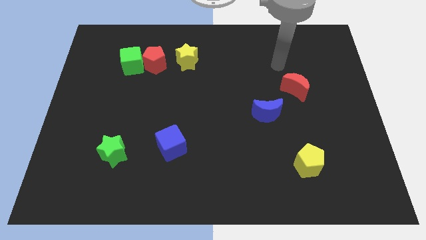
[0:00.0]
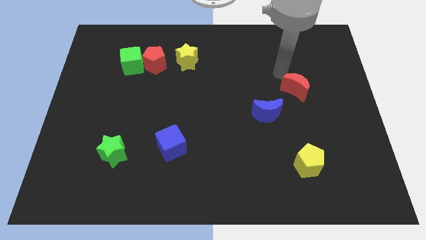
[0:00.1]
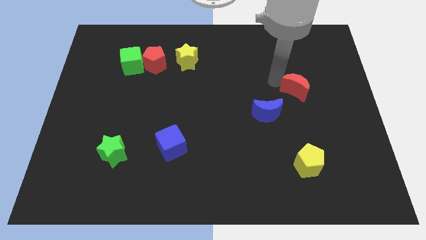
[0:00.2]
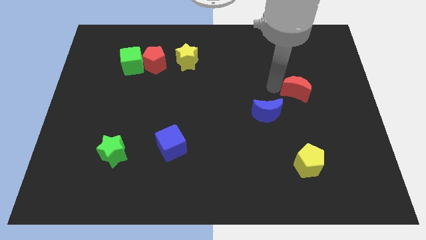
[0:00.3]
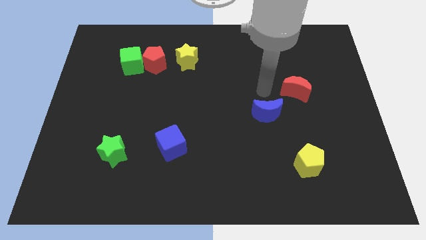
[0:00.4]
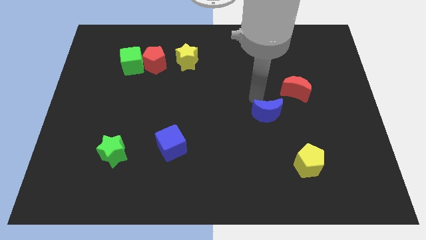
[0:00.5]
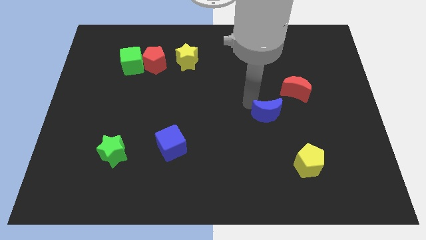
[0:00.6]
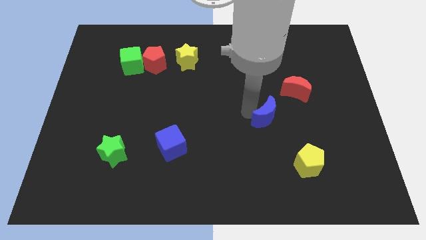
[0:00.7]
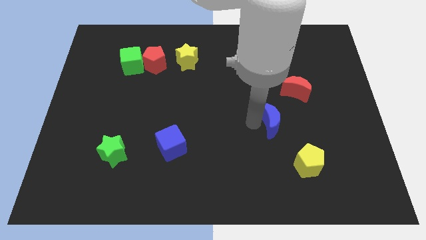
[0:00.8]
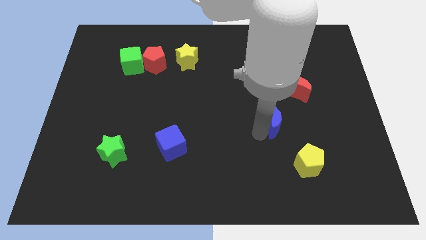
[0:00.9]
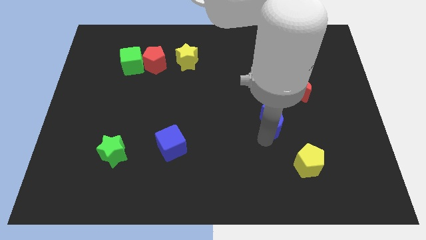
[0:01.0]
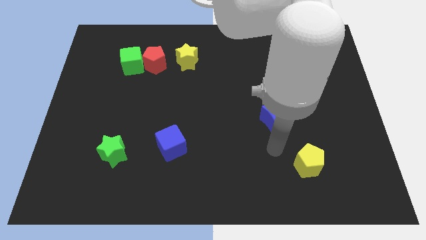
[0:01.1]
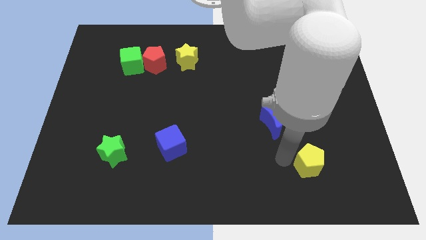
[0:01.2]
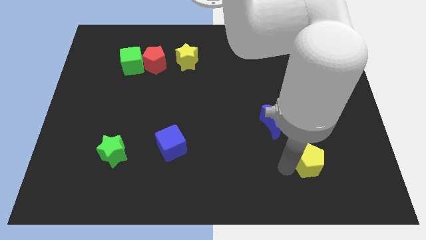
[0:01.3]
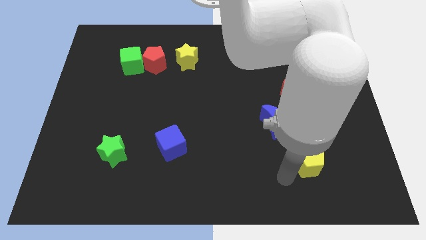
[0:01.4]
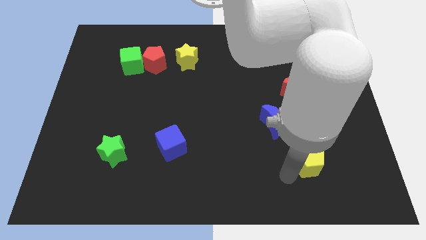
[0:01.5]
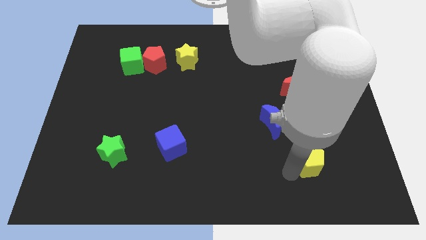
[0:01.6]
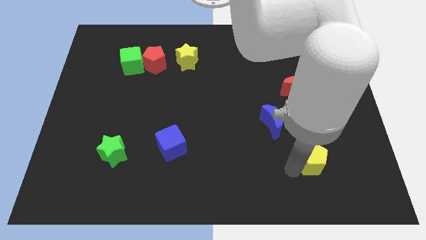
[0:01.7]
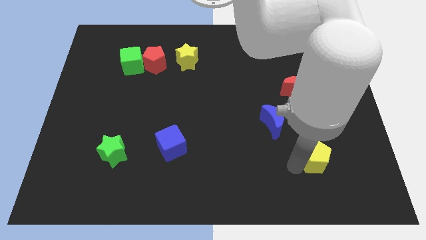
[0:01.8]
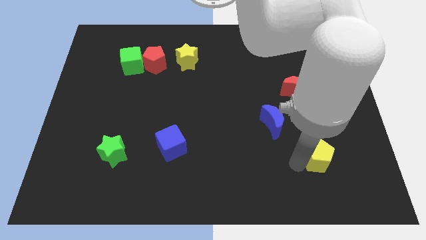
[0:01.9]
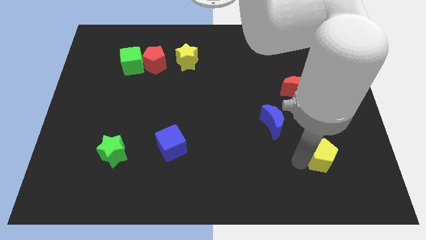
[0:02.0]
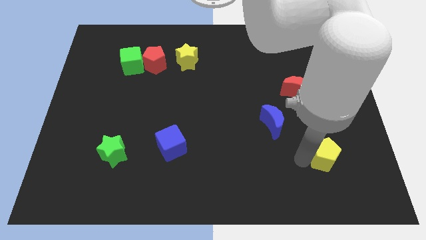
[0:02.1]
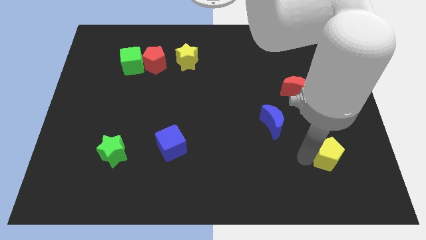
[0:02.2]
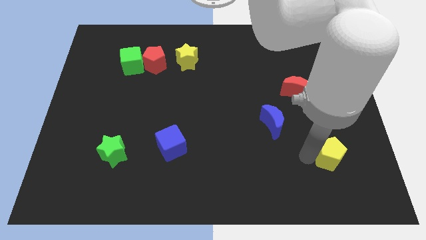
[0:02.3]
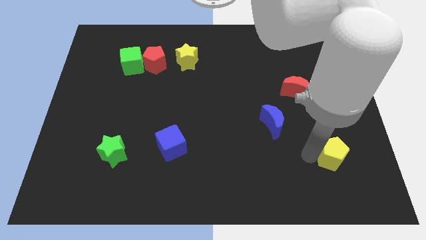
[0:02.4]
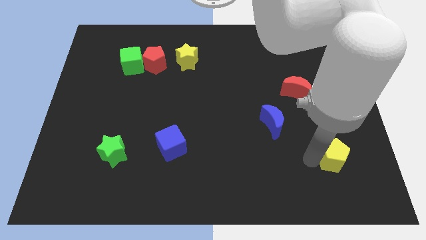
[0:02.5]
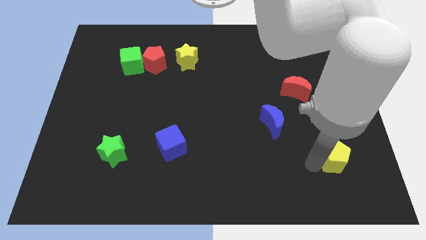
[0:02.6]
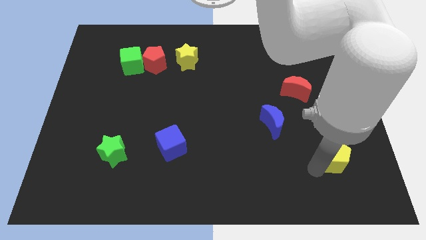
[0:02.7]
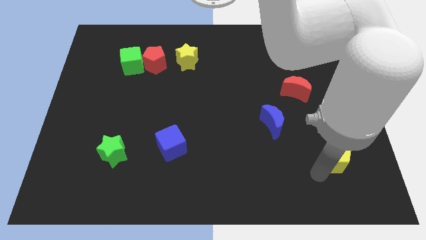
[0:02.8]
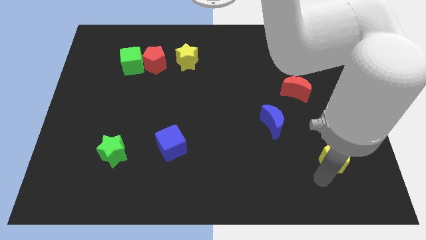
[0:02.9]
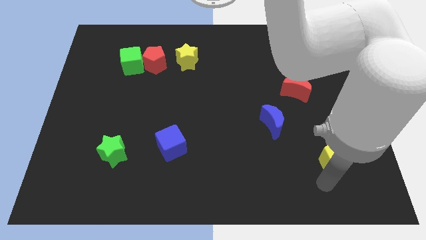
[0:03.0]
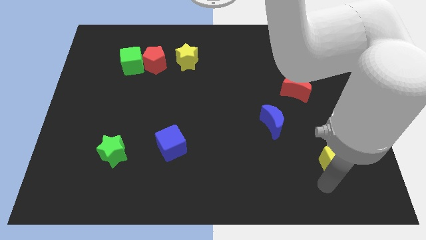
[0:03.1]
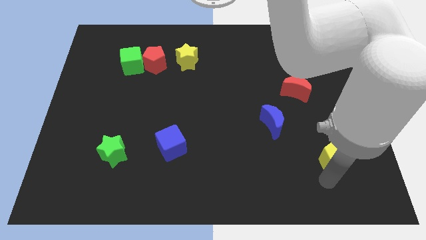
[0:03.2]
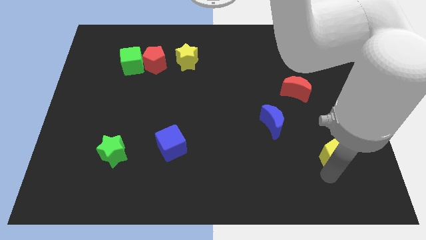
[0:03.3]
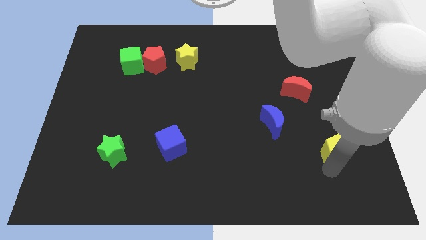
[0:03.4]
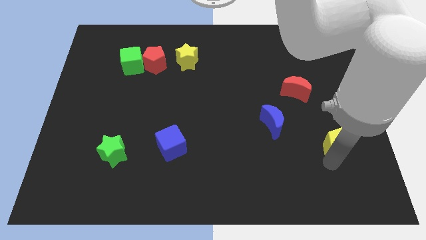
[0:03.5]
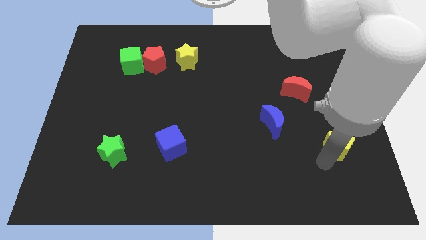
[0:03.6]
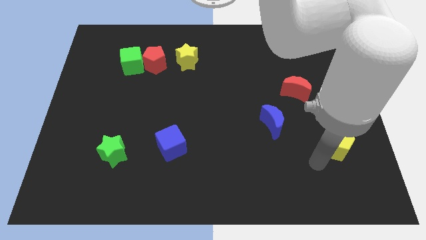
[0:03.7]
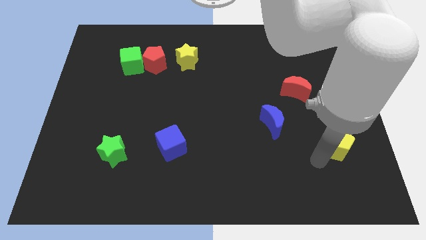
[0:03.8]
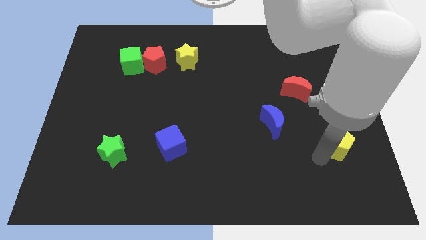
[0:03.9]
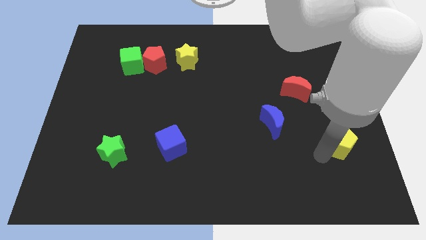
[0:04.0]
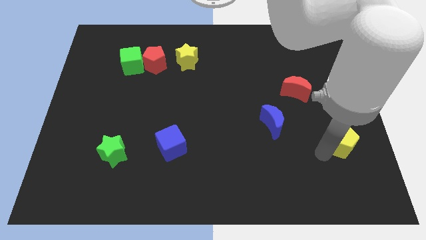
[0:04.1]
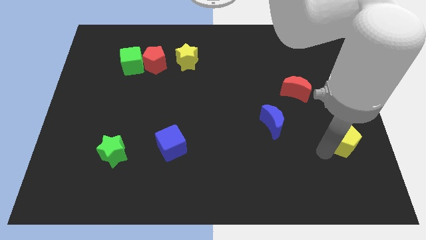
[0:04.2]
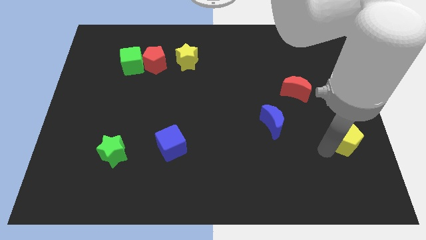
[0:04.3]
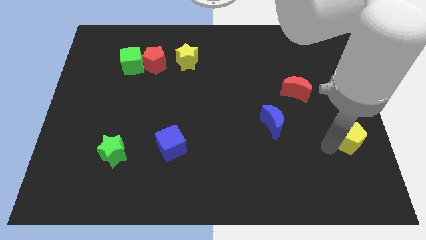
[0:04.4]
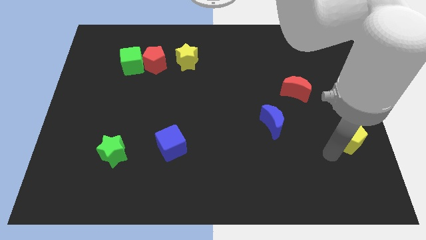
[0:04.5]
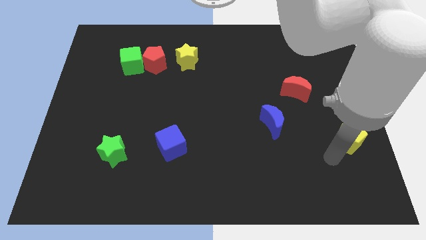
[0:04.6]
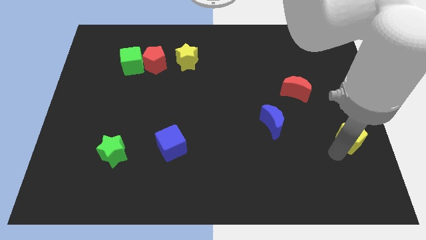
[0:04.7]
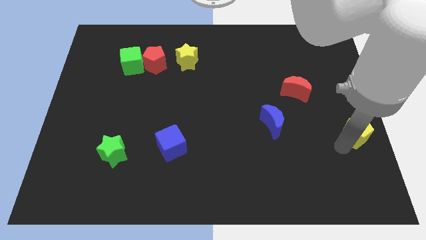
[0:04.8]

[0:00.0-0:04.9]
slide the yellow pentagon to the right side

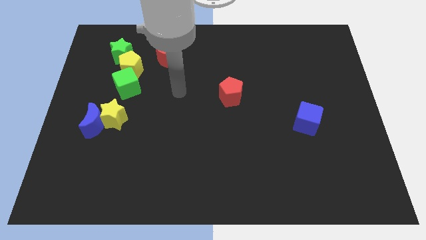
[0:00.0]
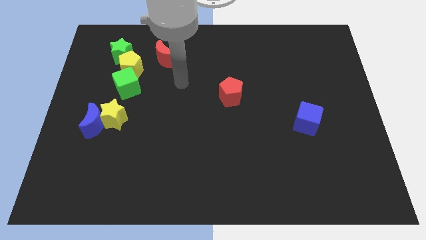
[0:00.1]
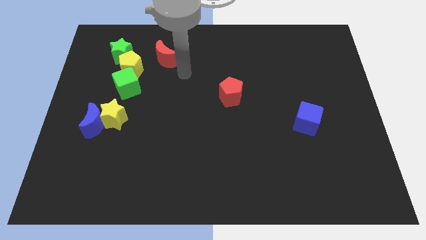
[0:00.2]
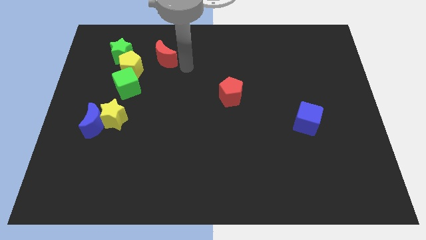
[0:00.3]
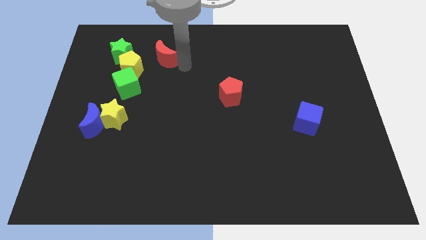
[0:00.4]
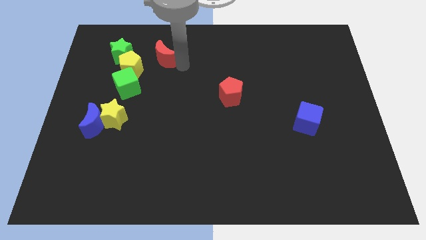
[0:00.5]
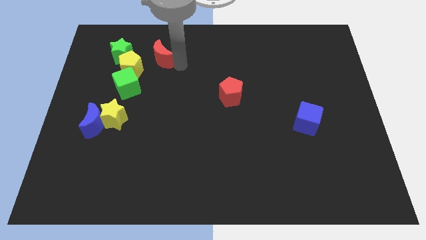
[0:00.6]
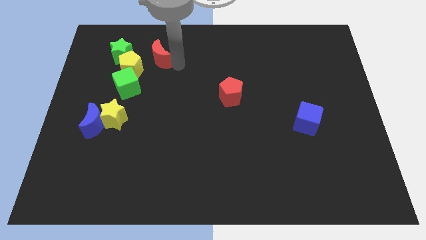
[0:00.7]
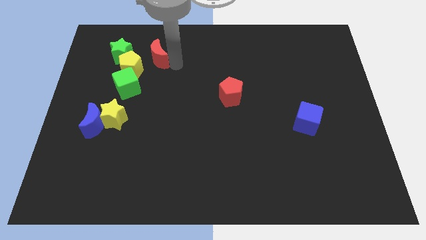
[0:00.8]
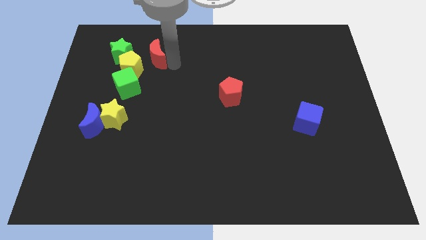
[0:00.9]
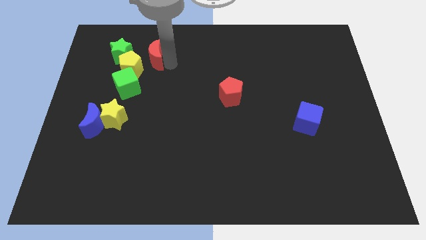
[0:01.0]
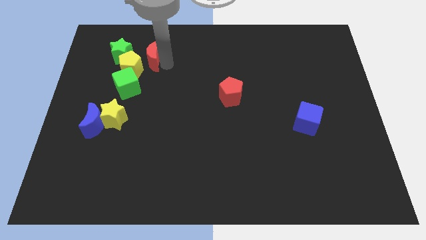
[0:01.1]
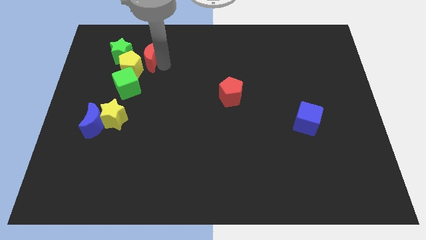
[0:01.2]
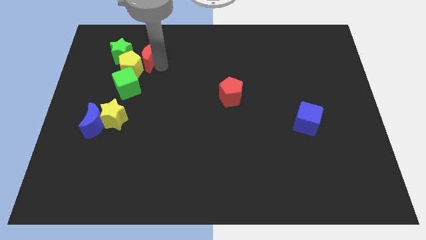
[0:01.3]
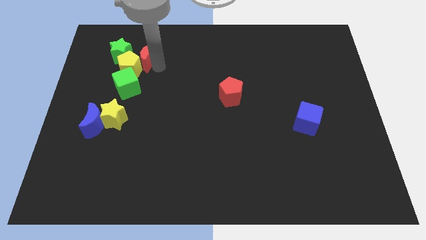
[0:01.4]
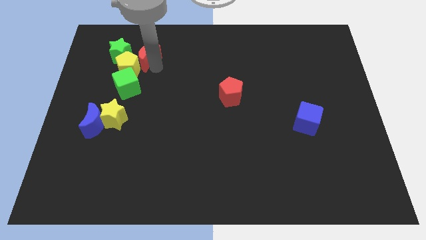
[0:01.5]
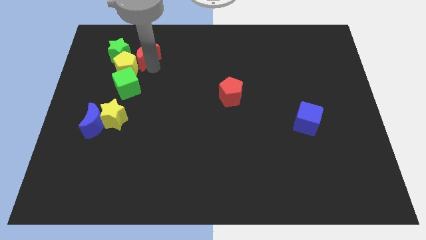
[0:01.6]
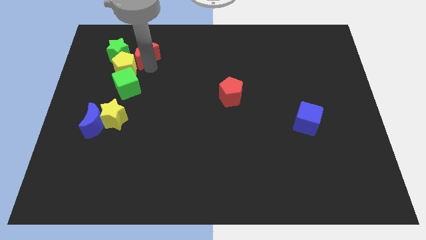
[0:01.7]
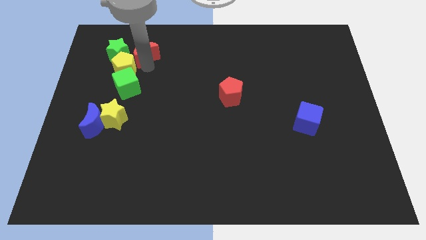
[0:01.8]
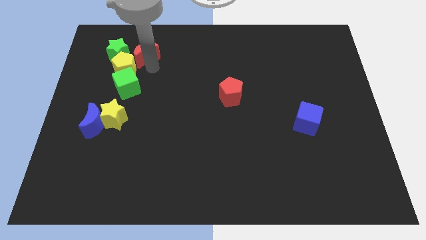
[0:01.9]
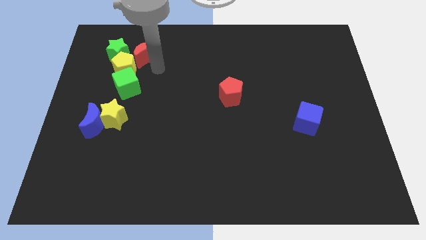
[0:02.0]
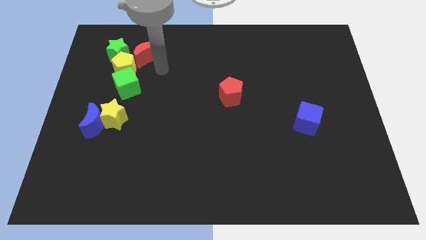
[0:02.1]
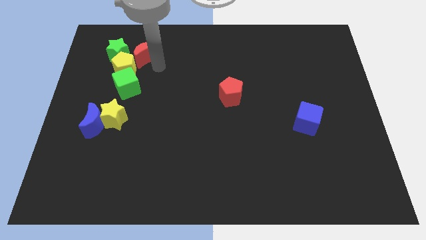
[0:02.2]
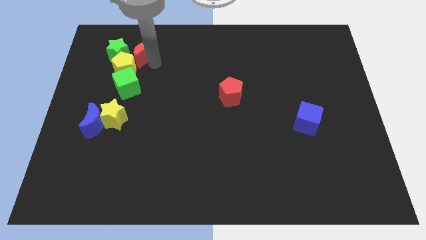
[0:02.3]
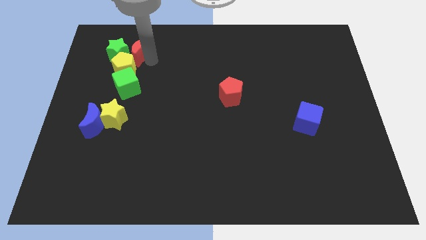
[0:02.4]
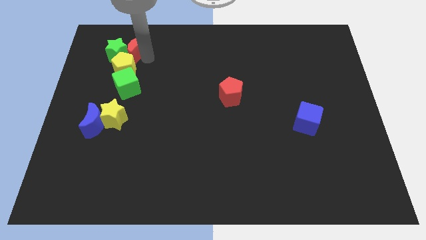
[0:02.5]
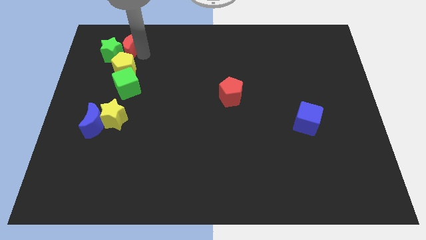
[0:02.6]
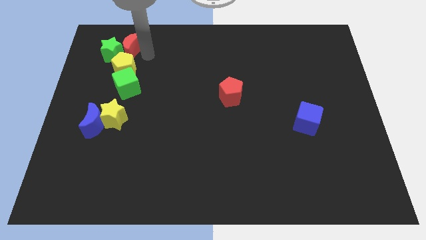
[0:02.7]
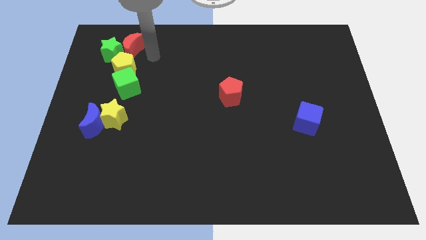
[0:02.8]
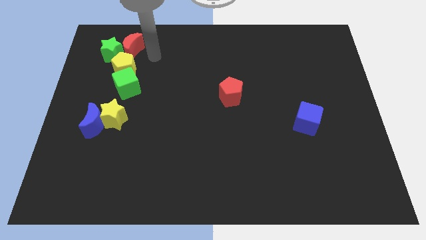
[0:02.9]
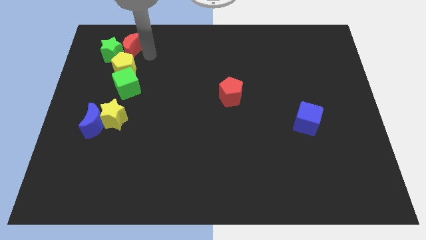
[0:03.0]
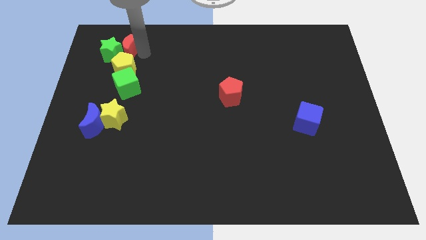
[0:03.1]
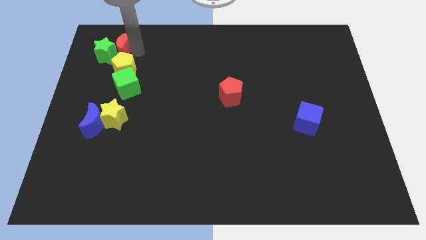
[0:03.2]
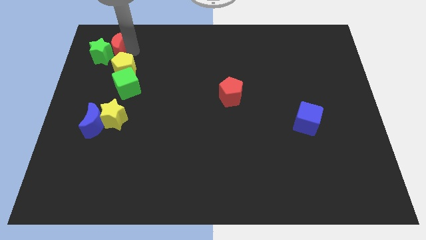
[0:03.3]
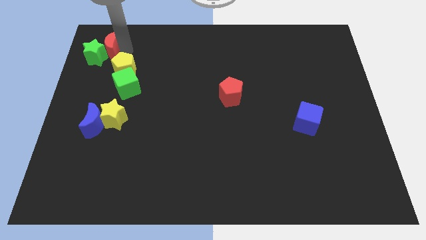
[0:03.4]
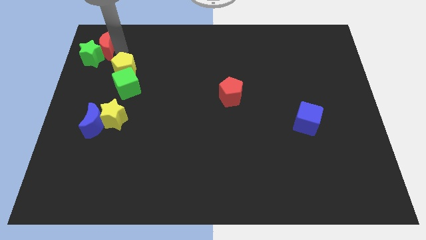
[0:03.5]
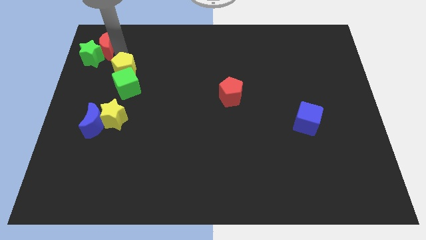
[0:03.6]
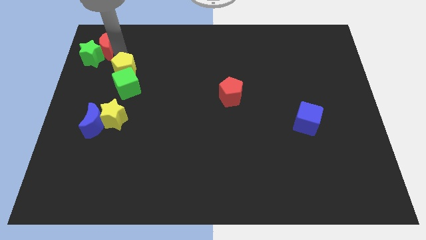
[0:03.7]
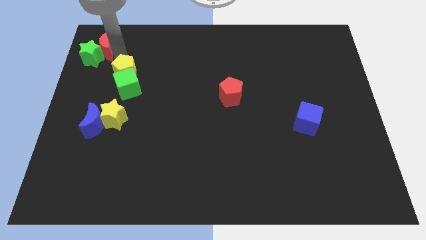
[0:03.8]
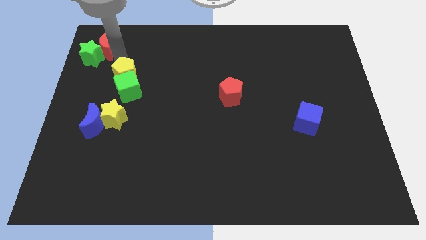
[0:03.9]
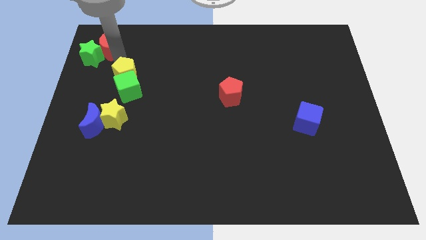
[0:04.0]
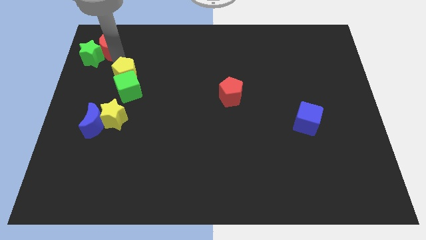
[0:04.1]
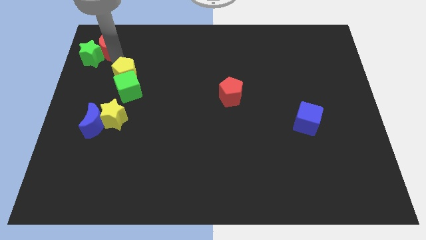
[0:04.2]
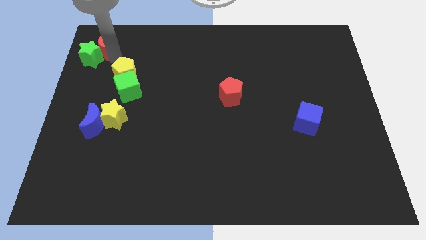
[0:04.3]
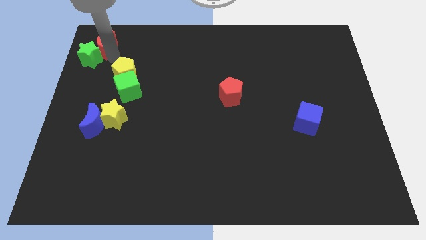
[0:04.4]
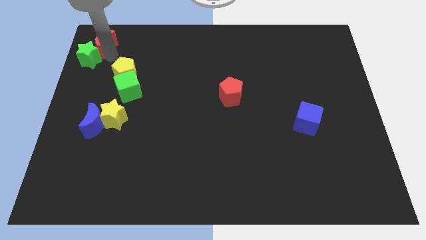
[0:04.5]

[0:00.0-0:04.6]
move the red moon to the upper left corner
